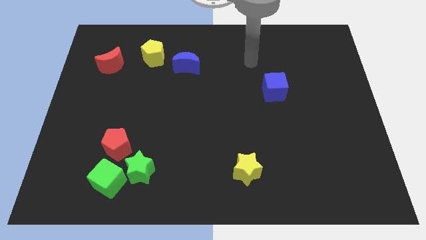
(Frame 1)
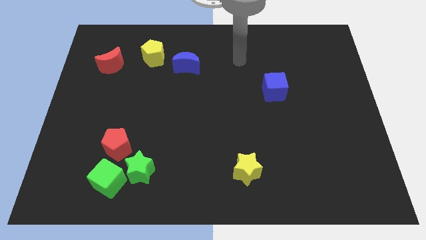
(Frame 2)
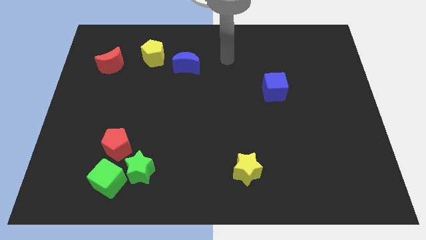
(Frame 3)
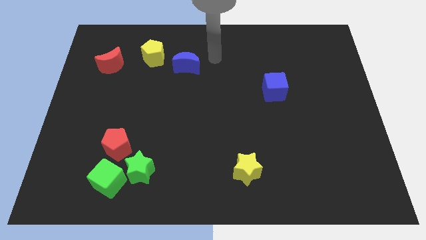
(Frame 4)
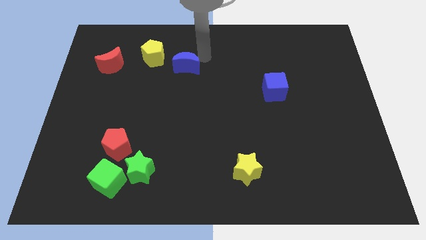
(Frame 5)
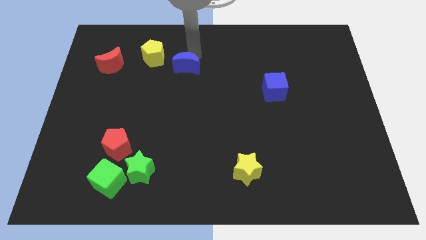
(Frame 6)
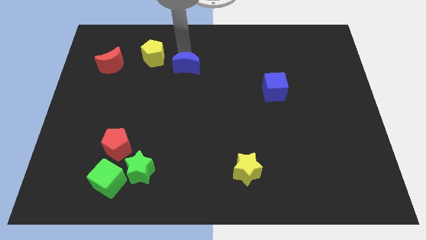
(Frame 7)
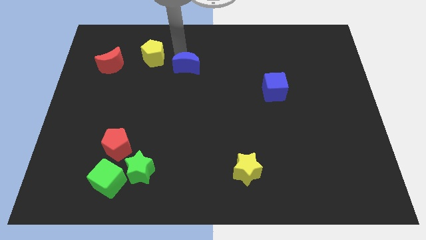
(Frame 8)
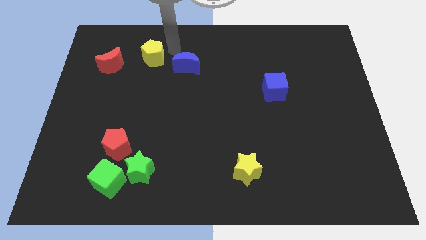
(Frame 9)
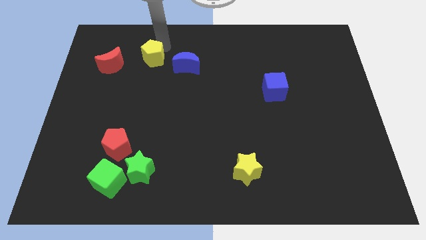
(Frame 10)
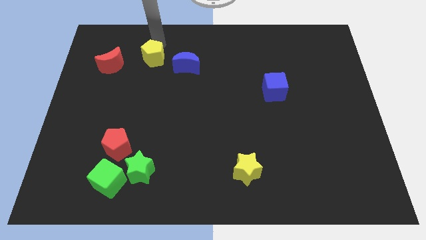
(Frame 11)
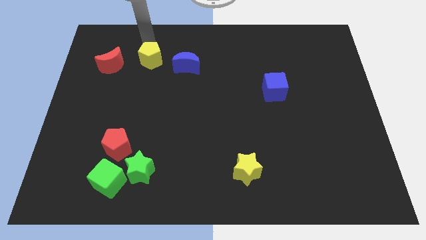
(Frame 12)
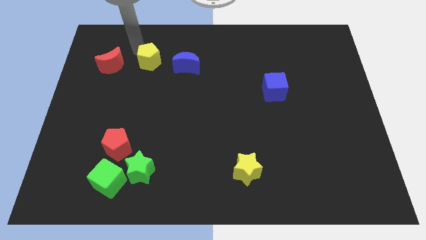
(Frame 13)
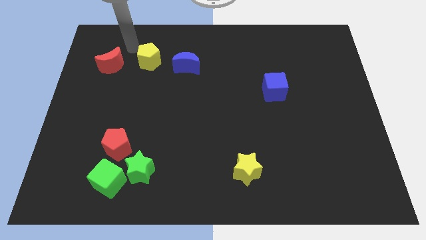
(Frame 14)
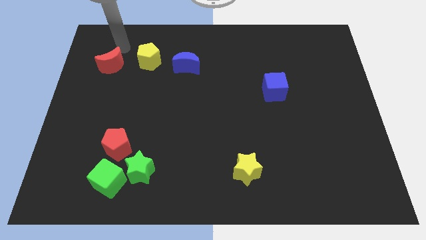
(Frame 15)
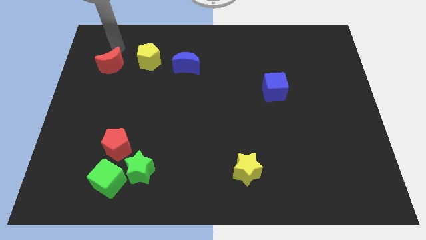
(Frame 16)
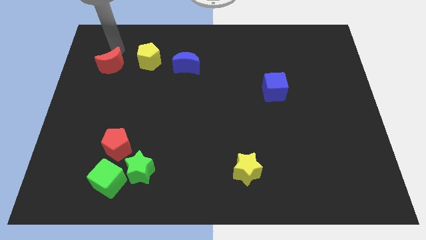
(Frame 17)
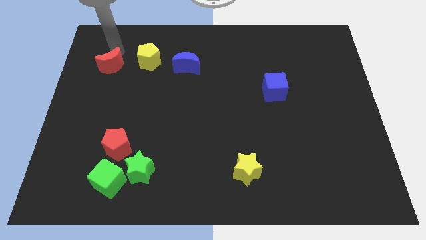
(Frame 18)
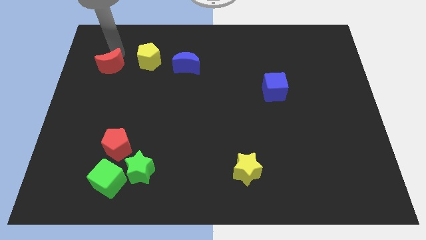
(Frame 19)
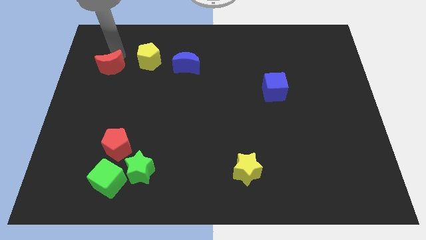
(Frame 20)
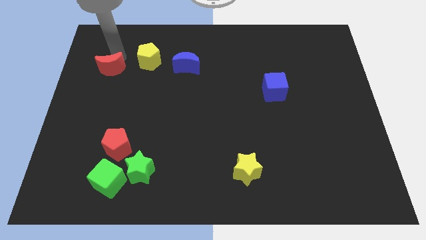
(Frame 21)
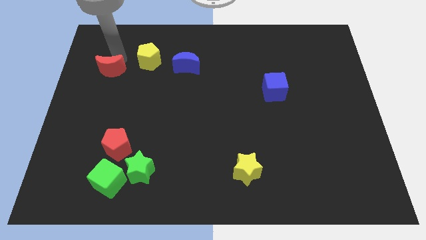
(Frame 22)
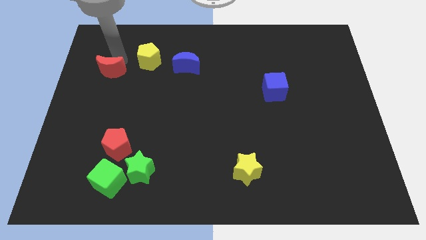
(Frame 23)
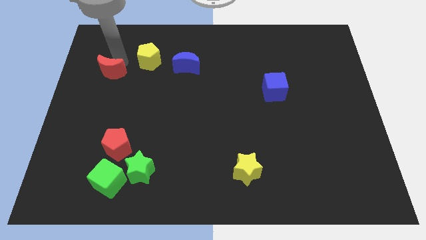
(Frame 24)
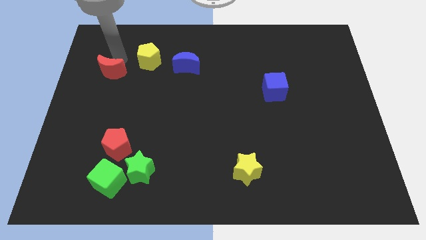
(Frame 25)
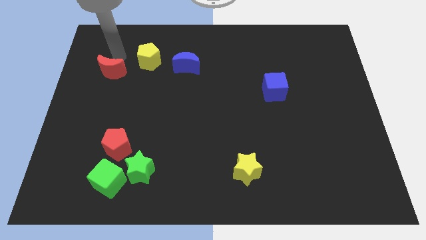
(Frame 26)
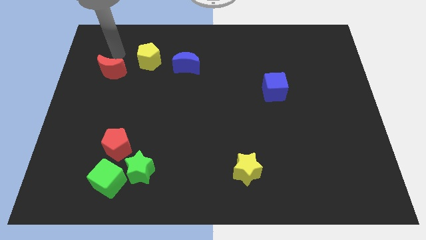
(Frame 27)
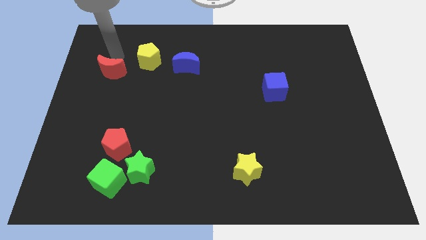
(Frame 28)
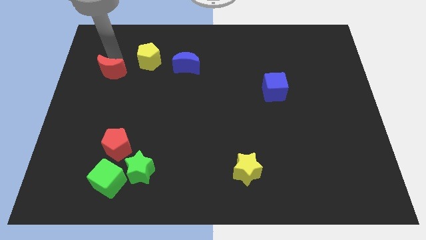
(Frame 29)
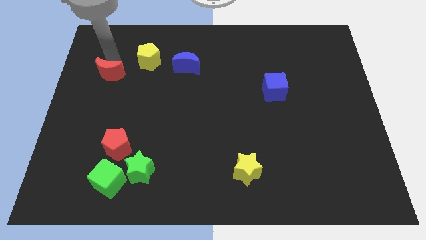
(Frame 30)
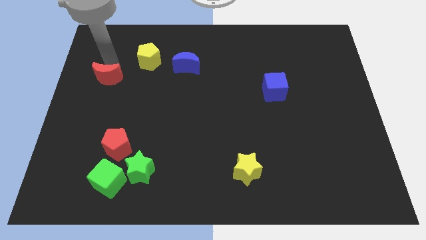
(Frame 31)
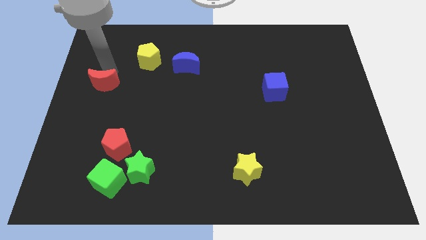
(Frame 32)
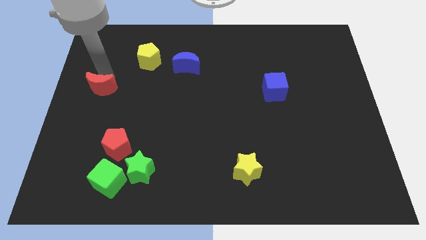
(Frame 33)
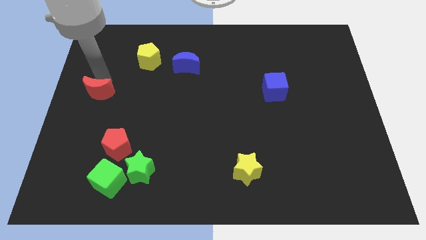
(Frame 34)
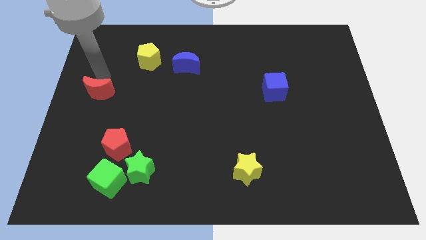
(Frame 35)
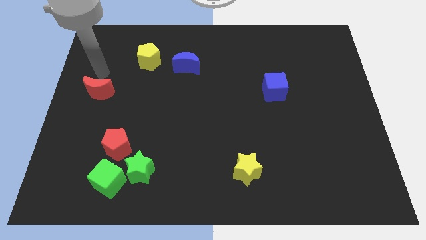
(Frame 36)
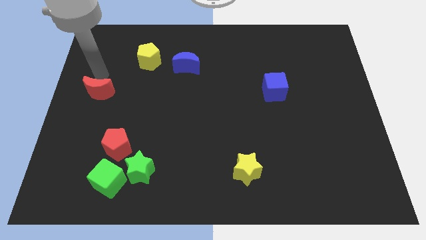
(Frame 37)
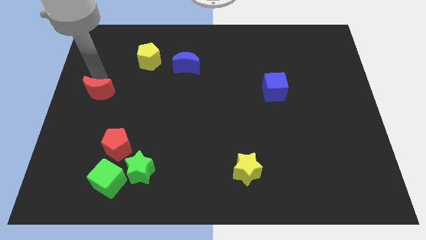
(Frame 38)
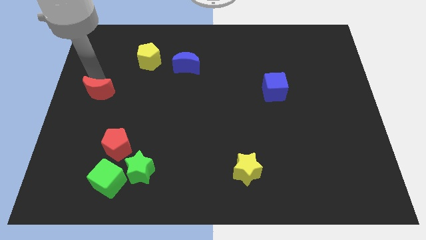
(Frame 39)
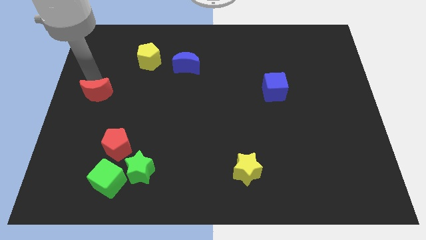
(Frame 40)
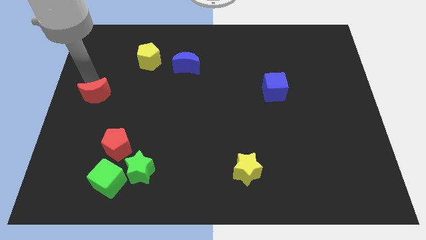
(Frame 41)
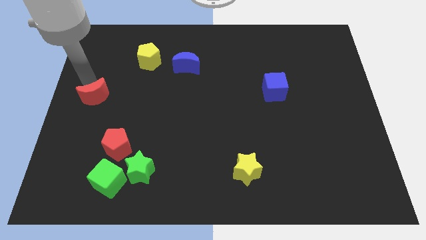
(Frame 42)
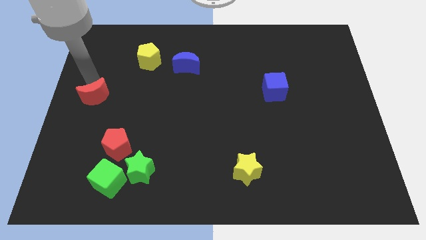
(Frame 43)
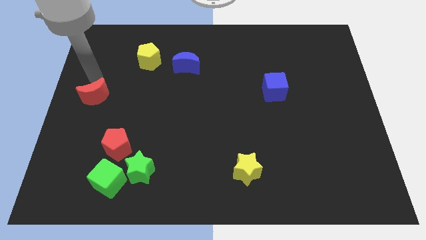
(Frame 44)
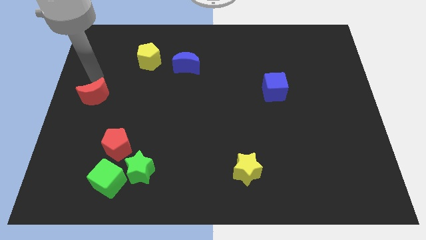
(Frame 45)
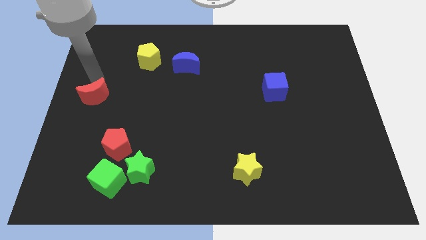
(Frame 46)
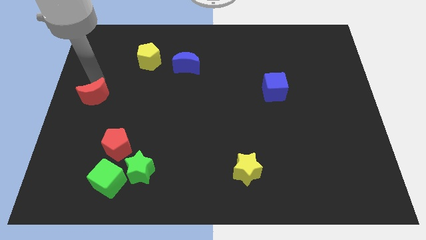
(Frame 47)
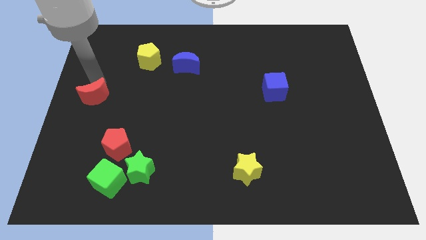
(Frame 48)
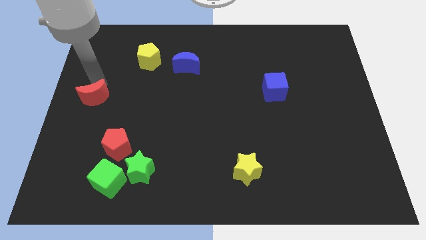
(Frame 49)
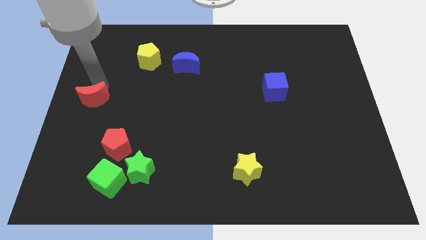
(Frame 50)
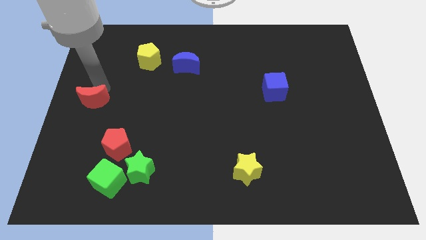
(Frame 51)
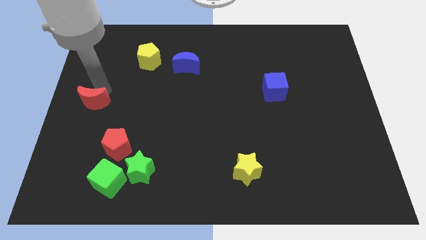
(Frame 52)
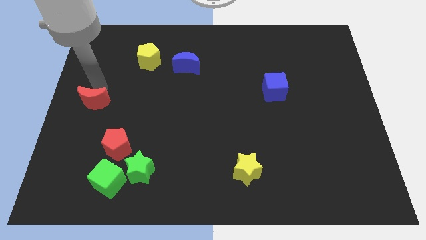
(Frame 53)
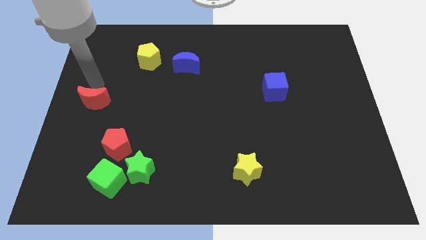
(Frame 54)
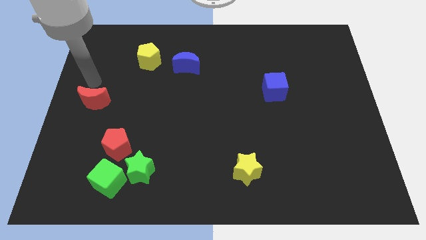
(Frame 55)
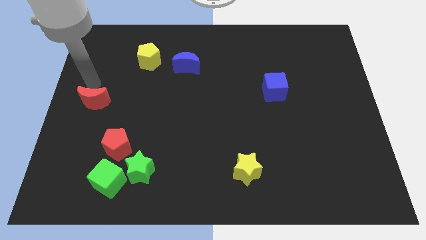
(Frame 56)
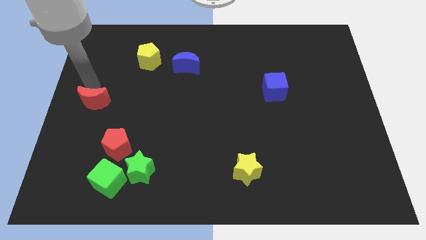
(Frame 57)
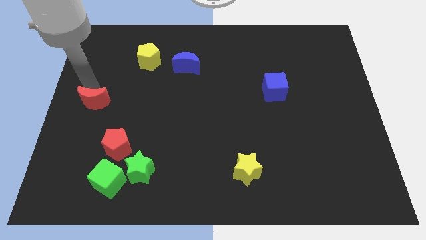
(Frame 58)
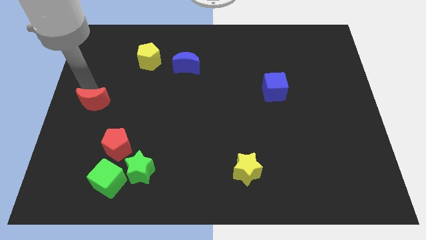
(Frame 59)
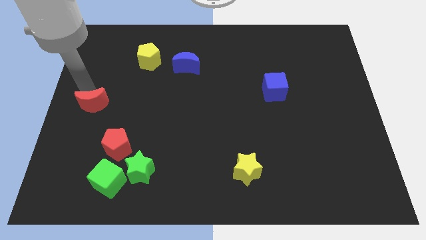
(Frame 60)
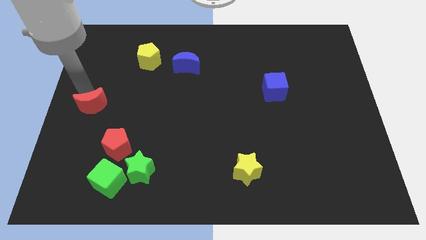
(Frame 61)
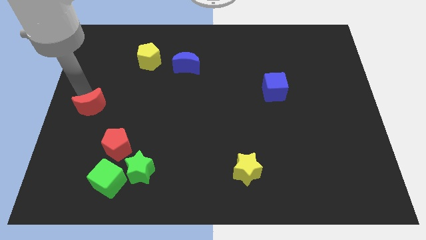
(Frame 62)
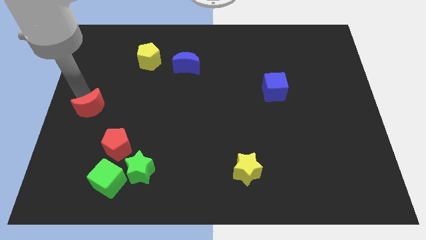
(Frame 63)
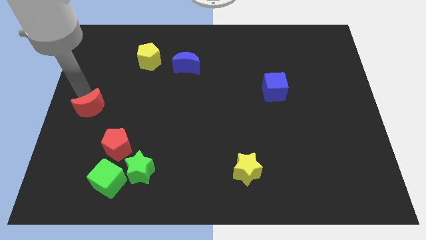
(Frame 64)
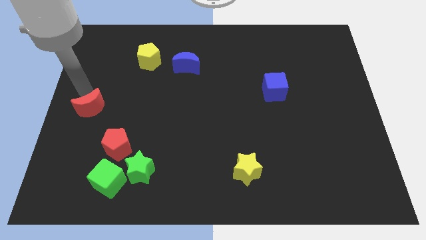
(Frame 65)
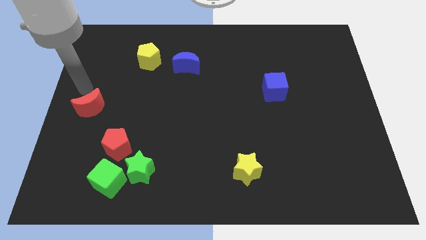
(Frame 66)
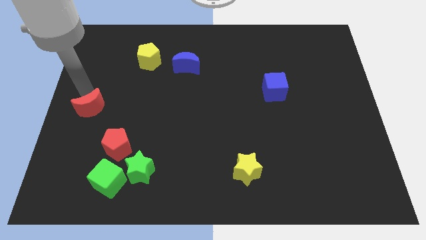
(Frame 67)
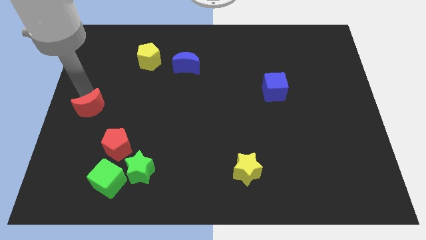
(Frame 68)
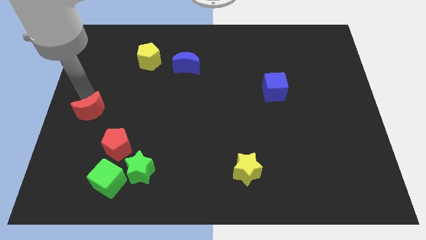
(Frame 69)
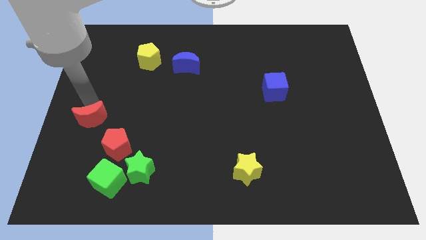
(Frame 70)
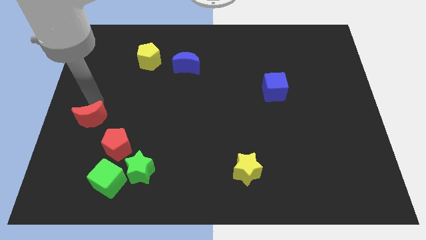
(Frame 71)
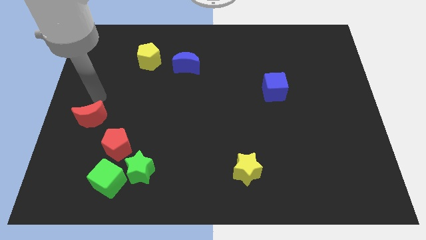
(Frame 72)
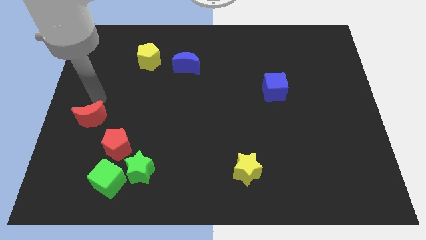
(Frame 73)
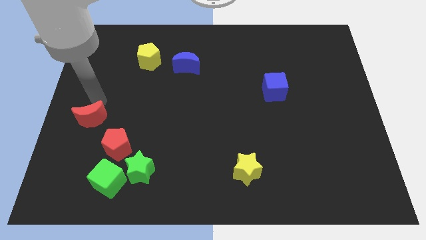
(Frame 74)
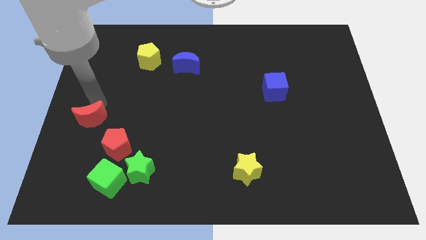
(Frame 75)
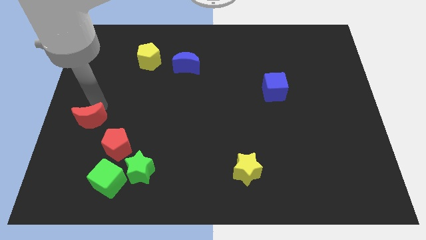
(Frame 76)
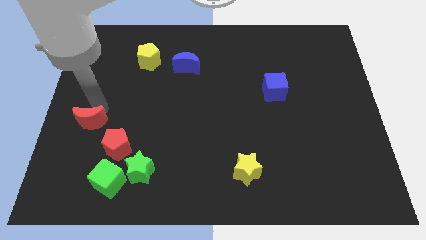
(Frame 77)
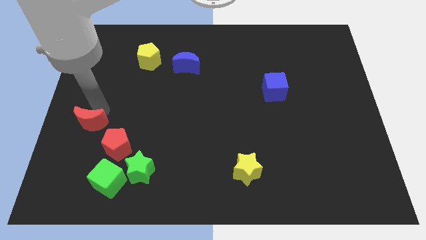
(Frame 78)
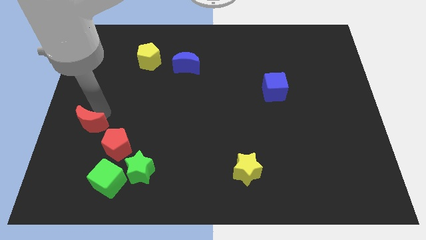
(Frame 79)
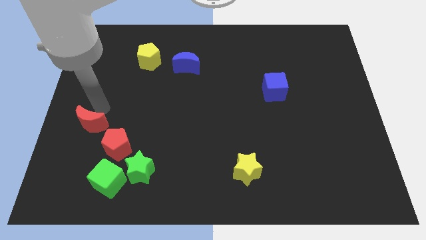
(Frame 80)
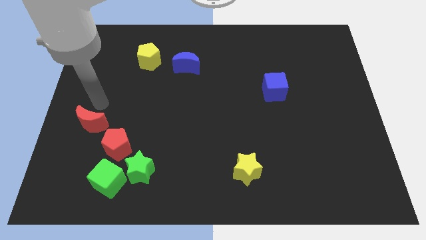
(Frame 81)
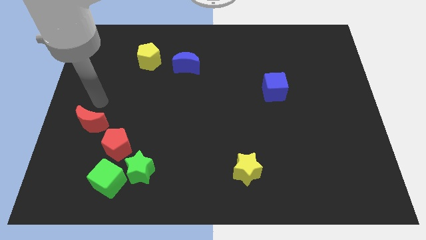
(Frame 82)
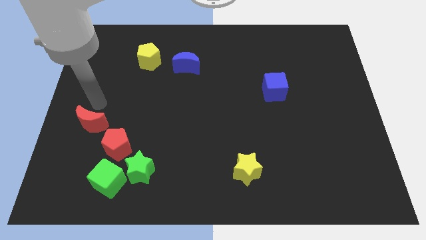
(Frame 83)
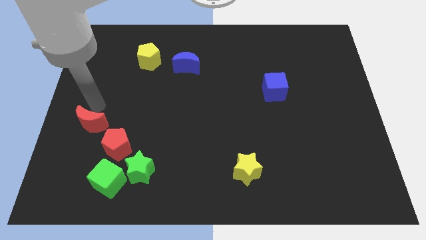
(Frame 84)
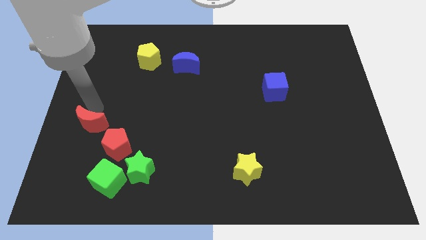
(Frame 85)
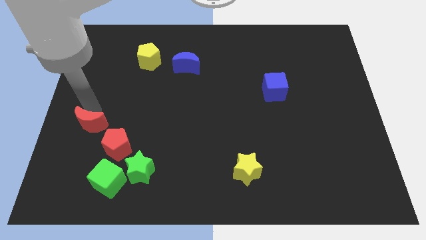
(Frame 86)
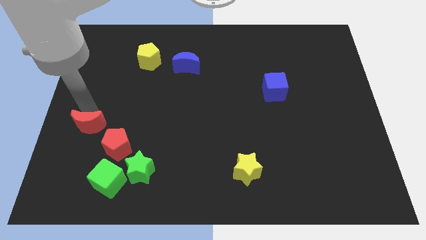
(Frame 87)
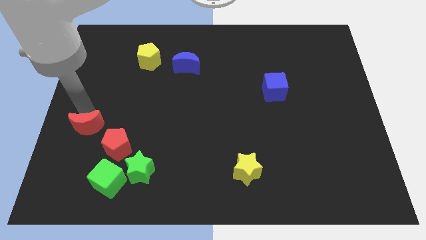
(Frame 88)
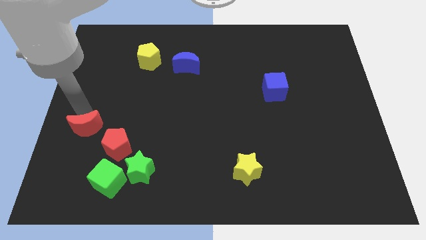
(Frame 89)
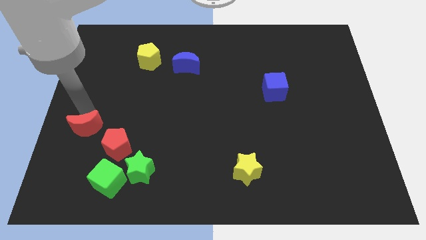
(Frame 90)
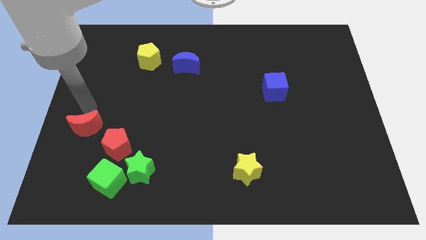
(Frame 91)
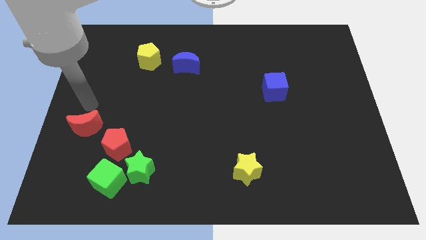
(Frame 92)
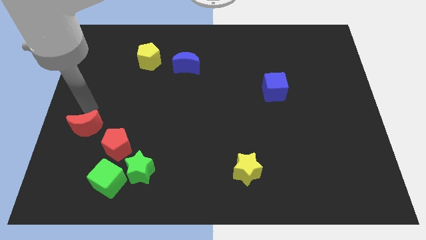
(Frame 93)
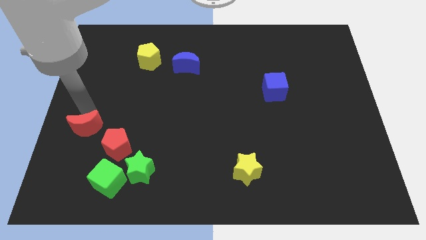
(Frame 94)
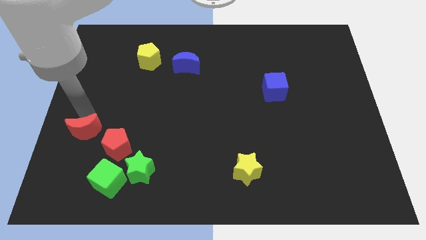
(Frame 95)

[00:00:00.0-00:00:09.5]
push the red moon downwards
